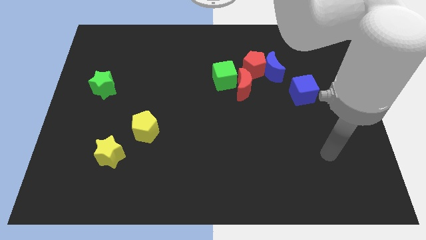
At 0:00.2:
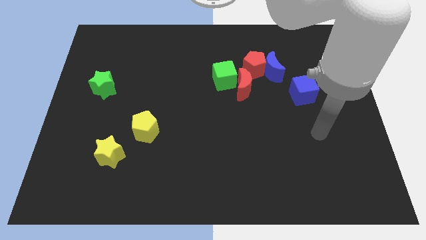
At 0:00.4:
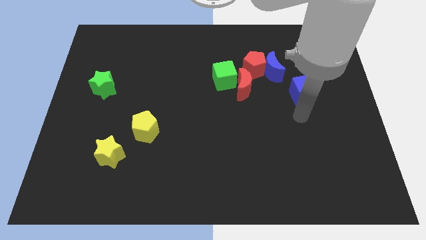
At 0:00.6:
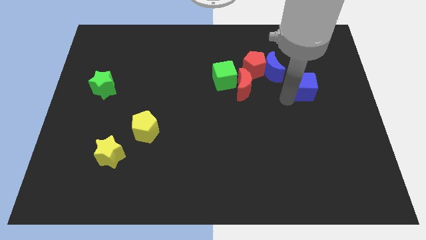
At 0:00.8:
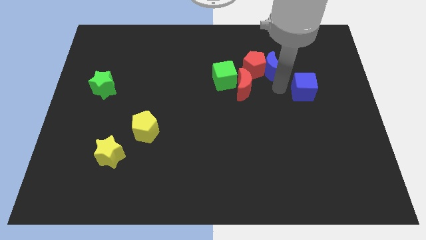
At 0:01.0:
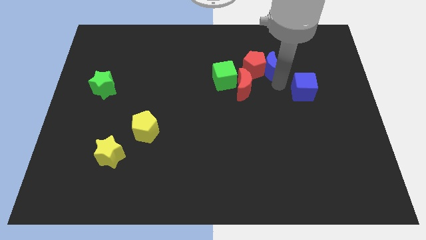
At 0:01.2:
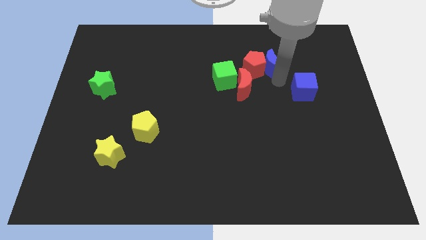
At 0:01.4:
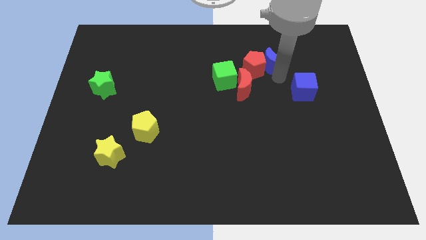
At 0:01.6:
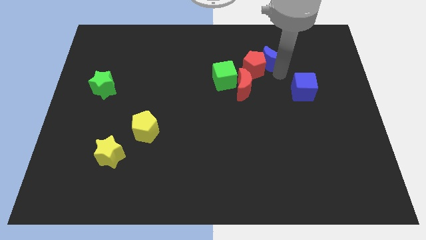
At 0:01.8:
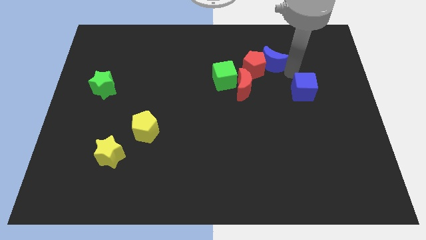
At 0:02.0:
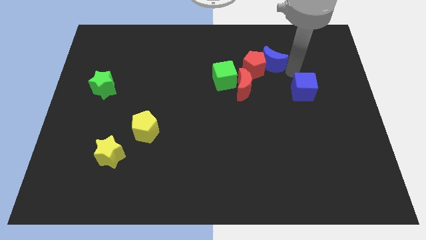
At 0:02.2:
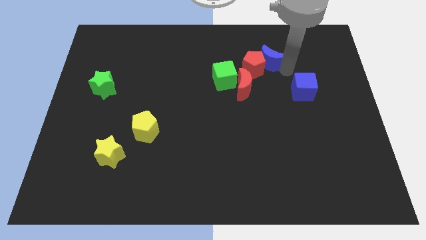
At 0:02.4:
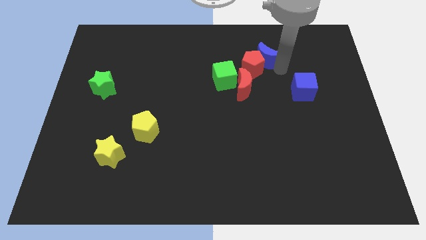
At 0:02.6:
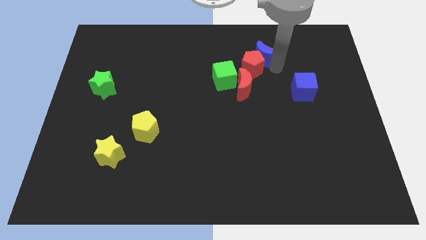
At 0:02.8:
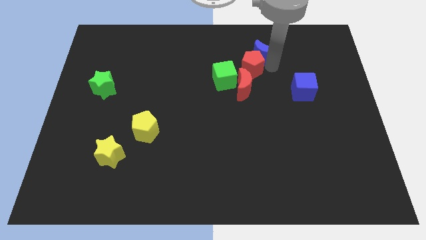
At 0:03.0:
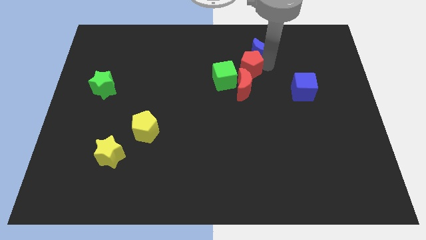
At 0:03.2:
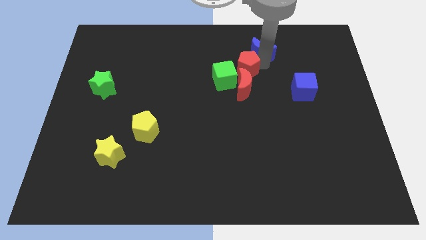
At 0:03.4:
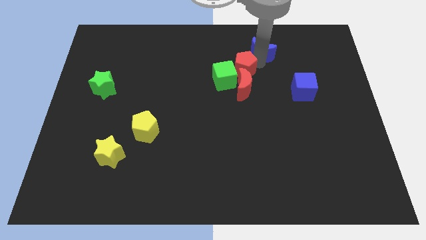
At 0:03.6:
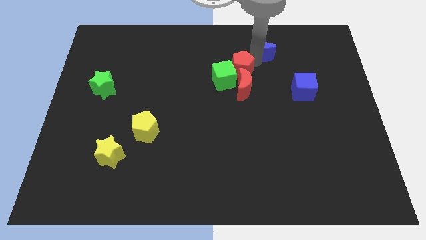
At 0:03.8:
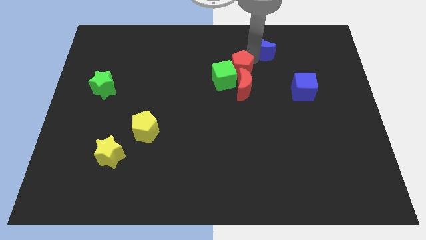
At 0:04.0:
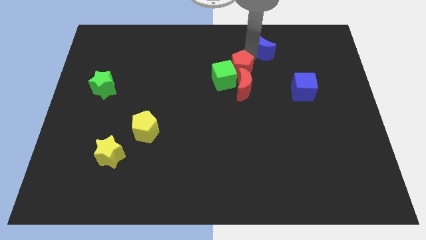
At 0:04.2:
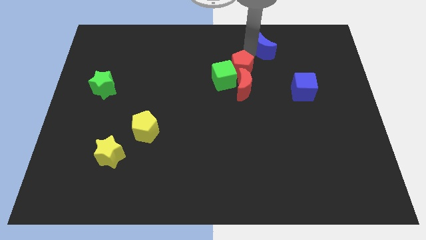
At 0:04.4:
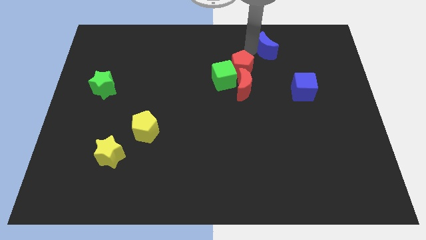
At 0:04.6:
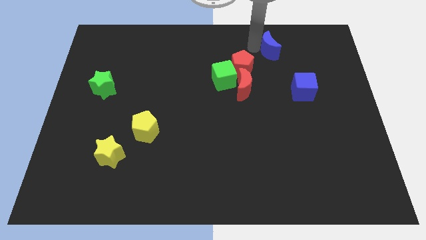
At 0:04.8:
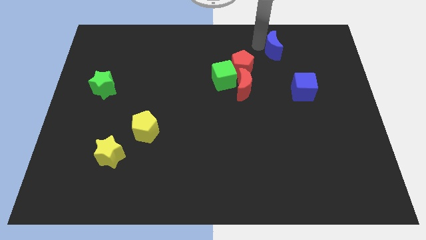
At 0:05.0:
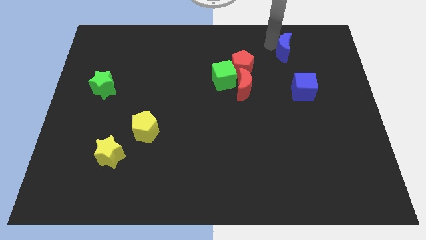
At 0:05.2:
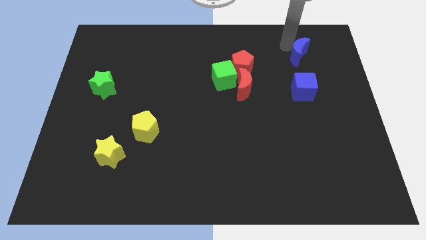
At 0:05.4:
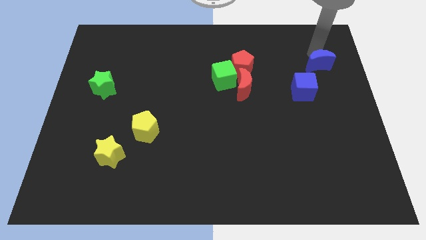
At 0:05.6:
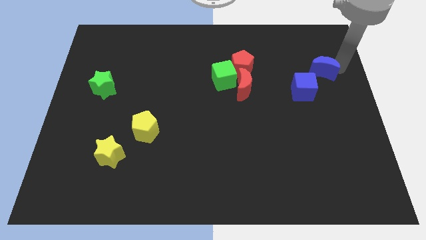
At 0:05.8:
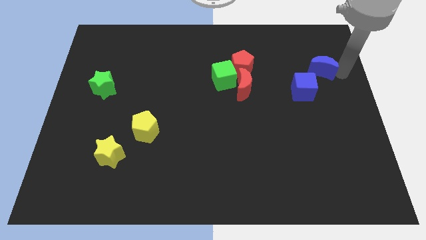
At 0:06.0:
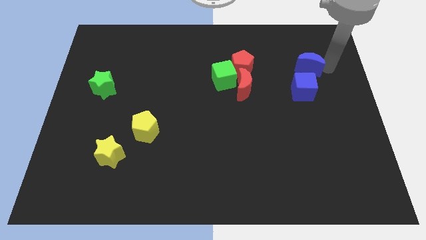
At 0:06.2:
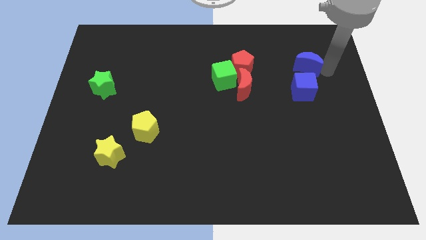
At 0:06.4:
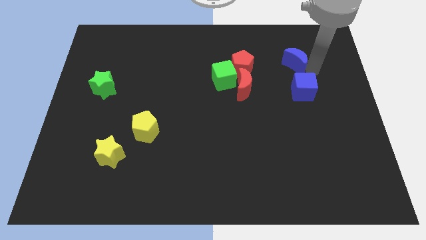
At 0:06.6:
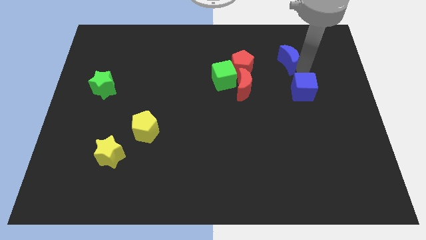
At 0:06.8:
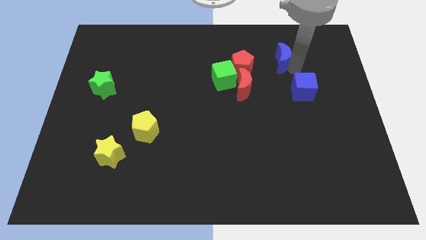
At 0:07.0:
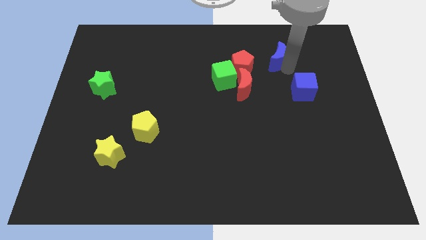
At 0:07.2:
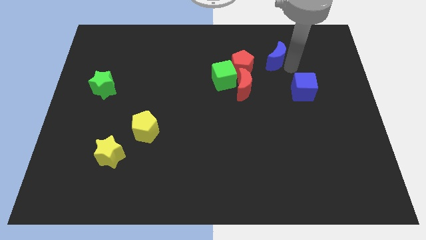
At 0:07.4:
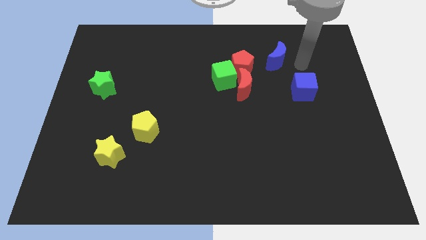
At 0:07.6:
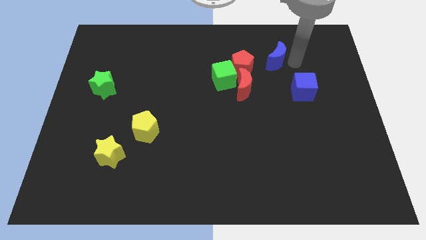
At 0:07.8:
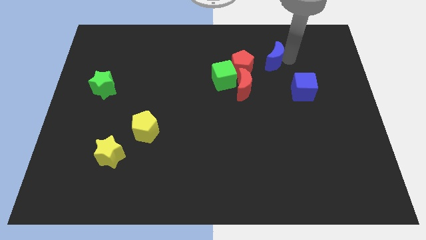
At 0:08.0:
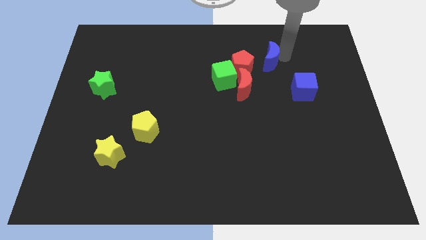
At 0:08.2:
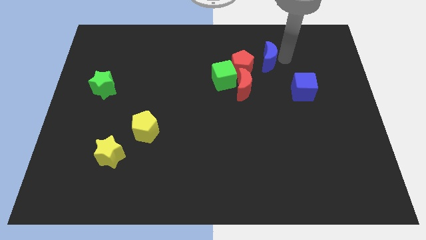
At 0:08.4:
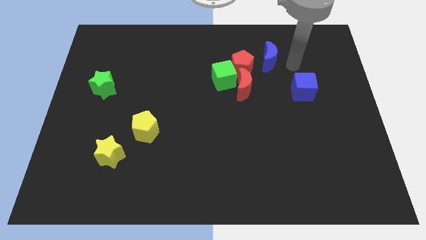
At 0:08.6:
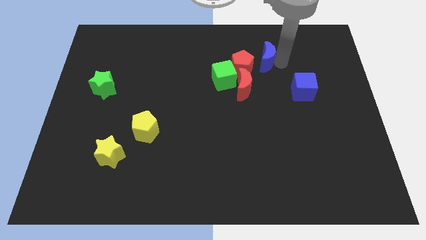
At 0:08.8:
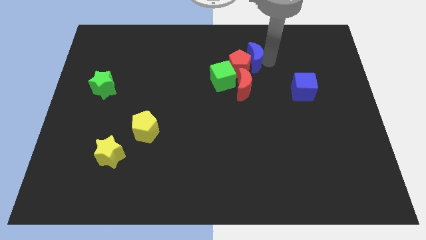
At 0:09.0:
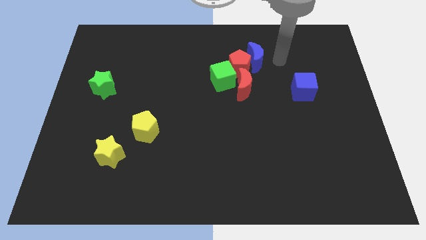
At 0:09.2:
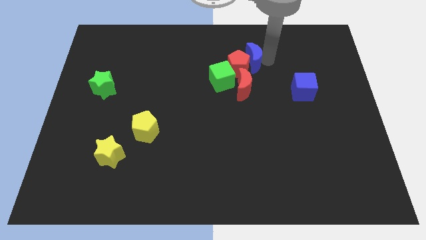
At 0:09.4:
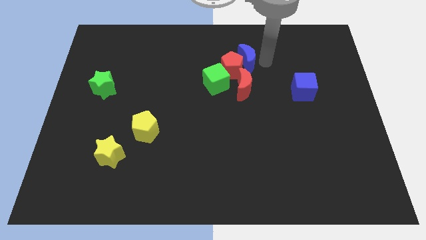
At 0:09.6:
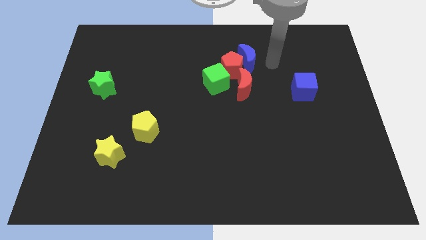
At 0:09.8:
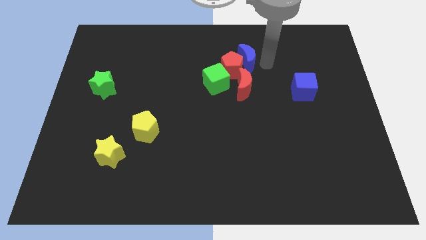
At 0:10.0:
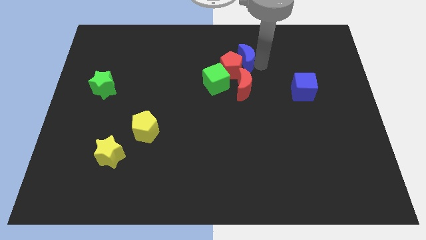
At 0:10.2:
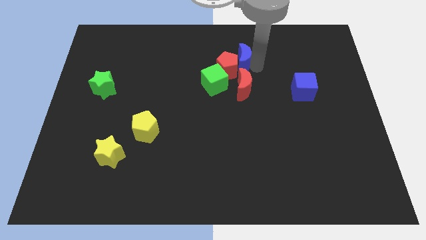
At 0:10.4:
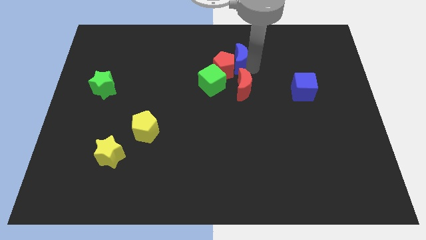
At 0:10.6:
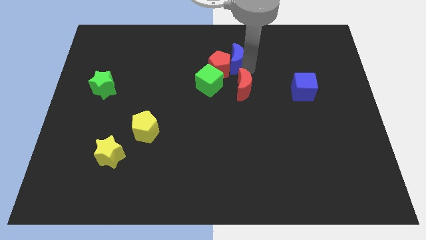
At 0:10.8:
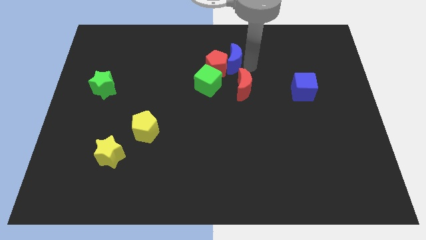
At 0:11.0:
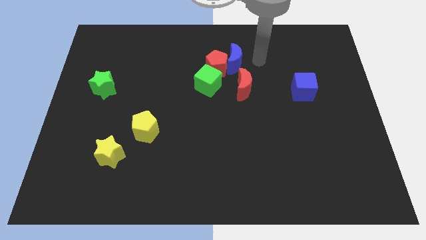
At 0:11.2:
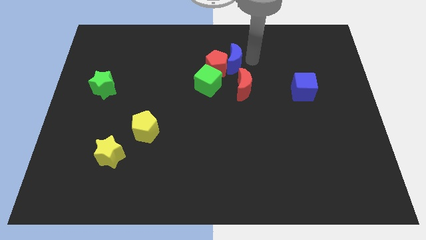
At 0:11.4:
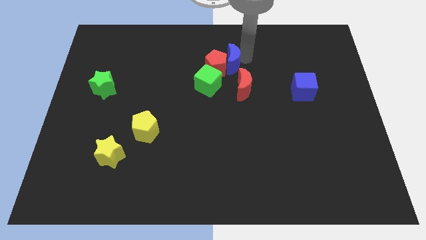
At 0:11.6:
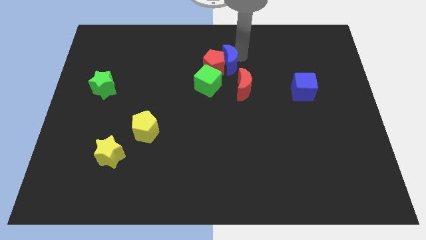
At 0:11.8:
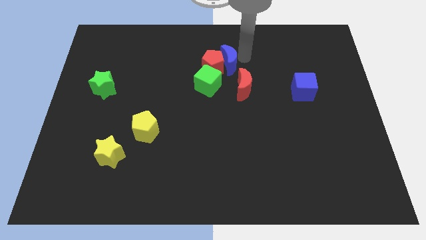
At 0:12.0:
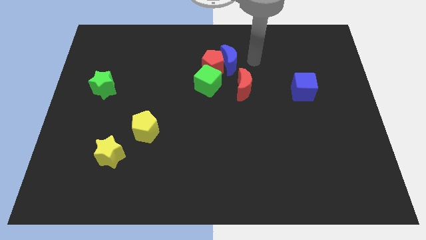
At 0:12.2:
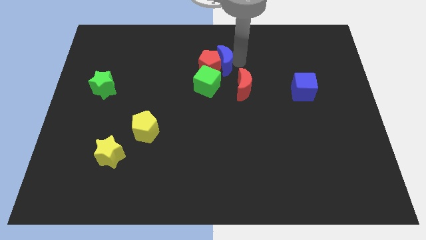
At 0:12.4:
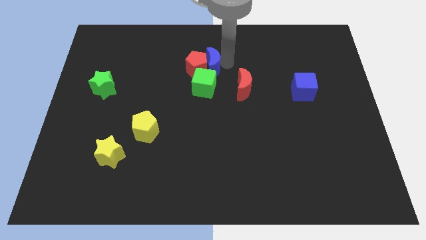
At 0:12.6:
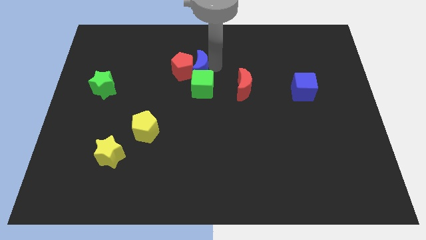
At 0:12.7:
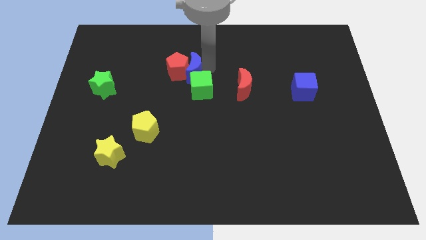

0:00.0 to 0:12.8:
push the blue moon left

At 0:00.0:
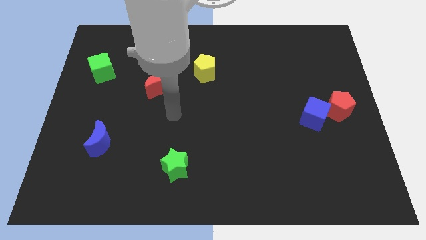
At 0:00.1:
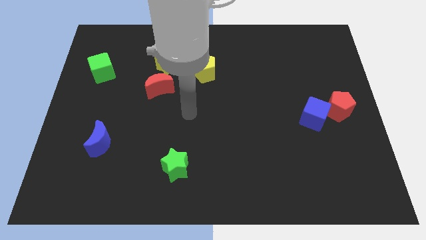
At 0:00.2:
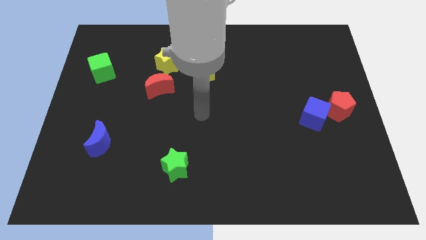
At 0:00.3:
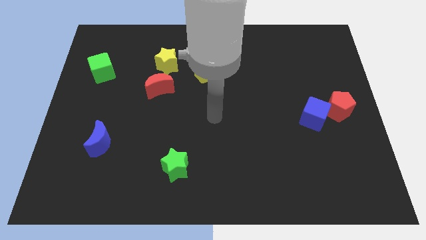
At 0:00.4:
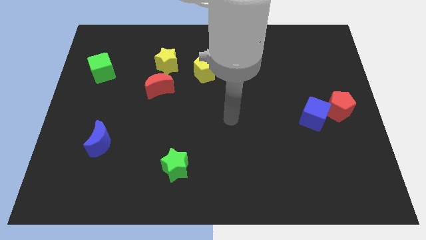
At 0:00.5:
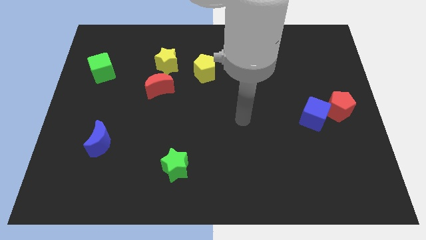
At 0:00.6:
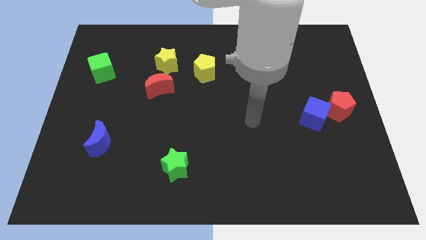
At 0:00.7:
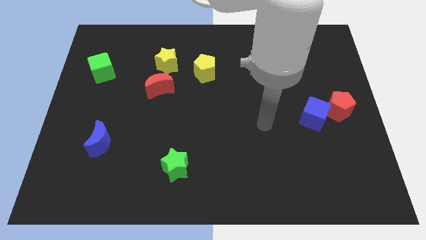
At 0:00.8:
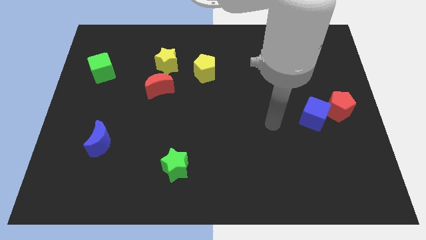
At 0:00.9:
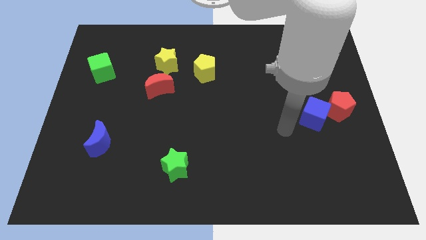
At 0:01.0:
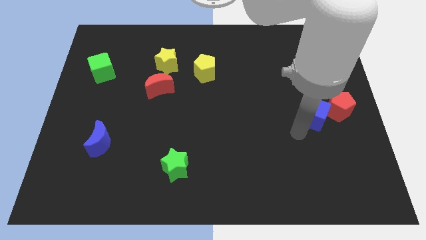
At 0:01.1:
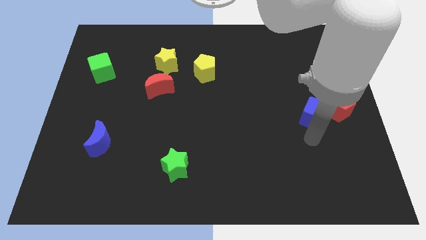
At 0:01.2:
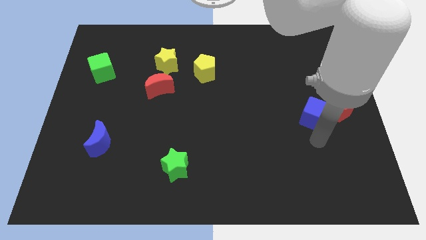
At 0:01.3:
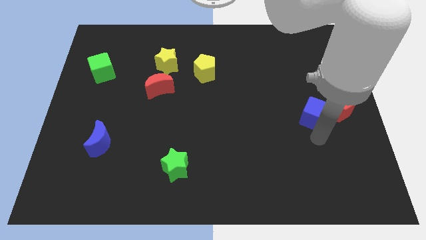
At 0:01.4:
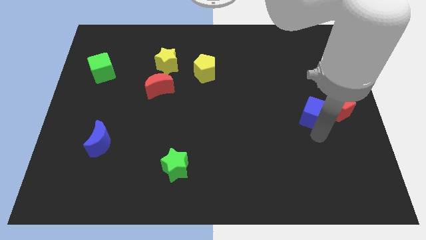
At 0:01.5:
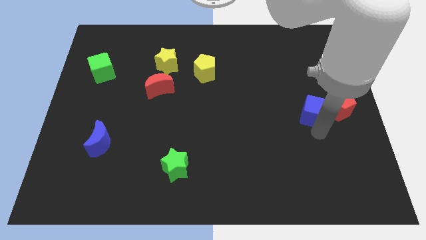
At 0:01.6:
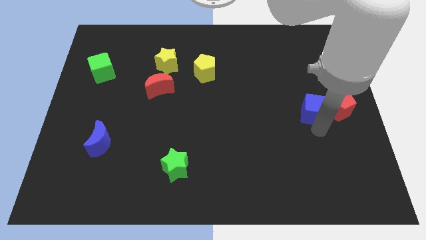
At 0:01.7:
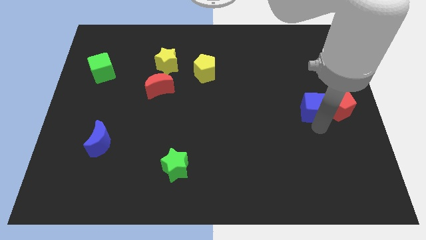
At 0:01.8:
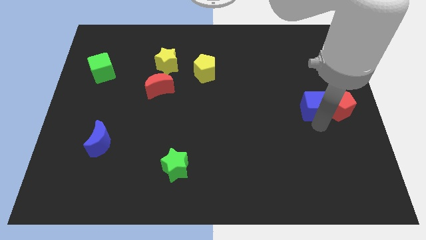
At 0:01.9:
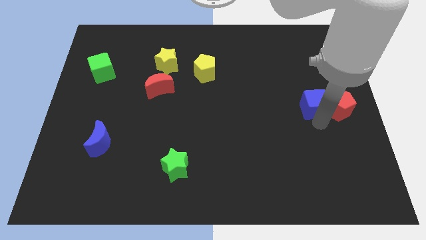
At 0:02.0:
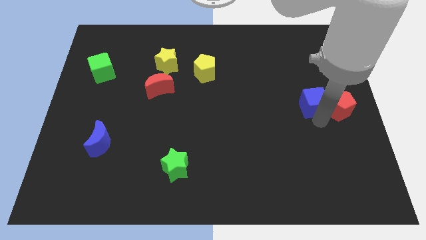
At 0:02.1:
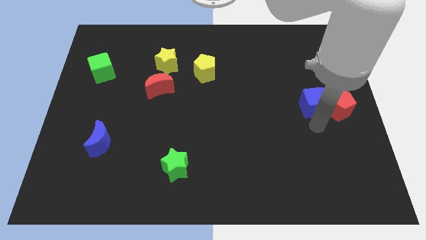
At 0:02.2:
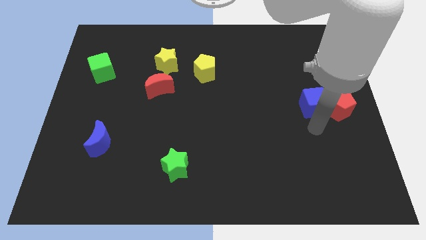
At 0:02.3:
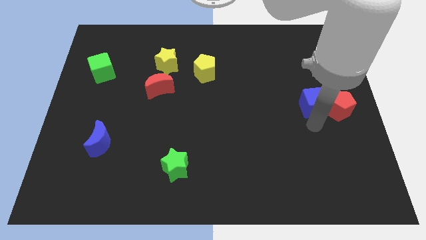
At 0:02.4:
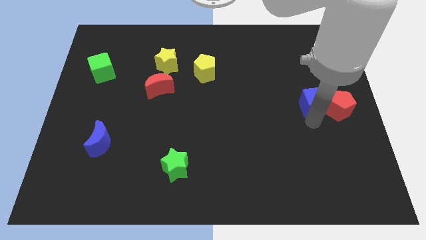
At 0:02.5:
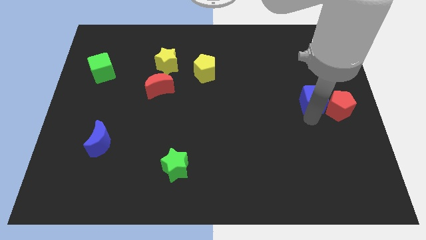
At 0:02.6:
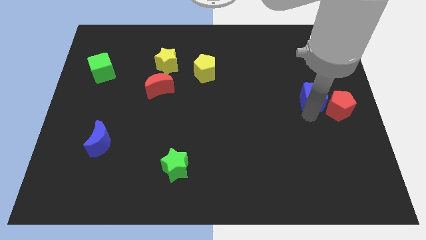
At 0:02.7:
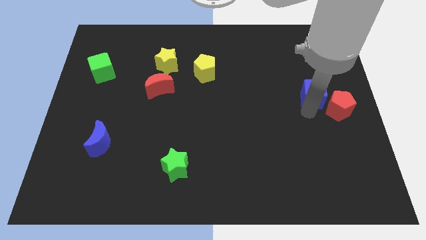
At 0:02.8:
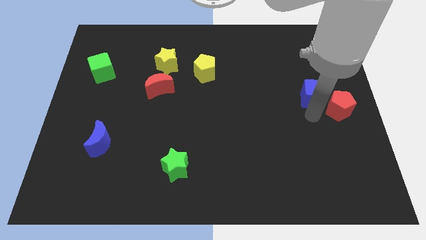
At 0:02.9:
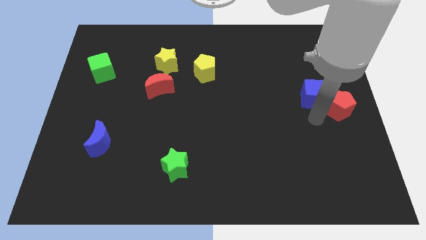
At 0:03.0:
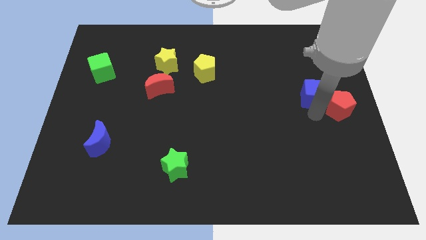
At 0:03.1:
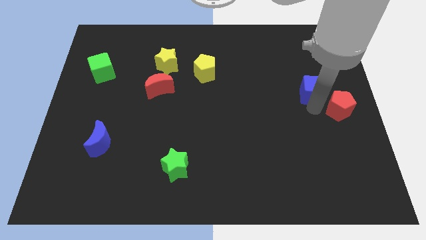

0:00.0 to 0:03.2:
slide the blue cube a little bit upwards
